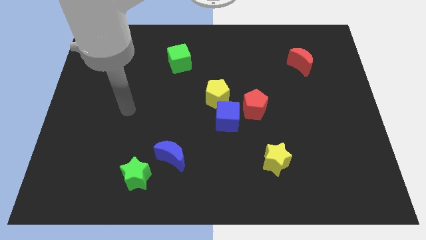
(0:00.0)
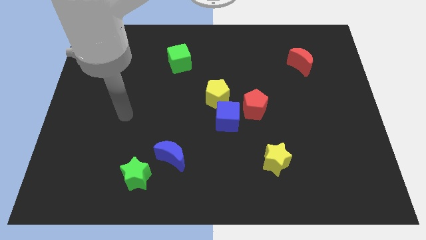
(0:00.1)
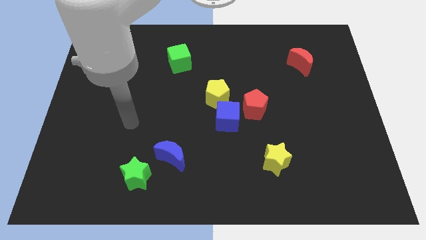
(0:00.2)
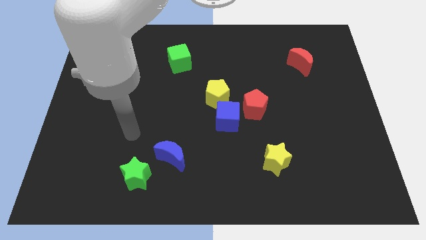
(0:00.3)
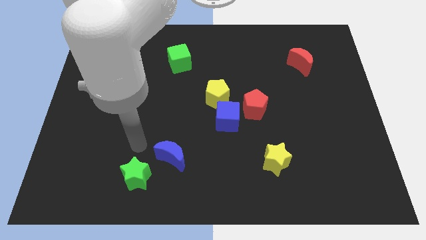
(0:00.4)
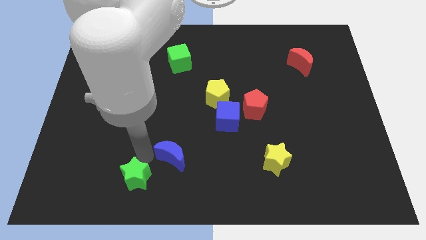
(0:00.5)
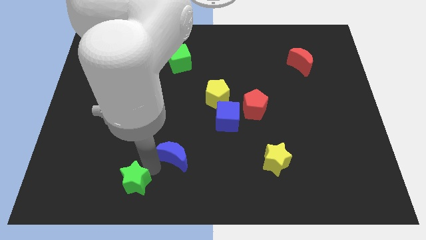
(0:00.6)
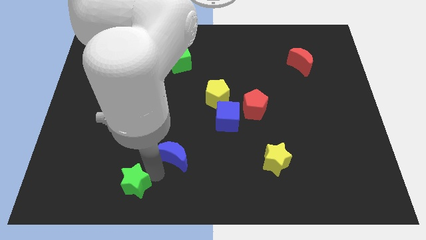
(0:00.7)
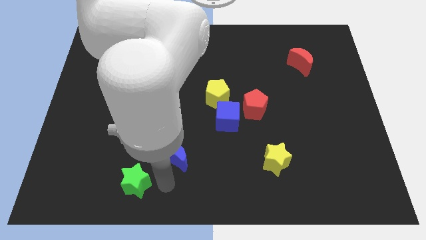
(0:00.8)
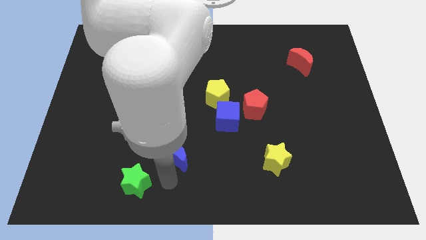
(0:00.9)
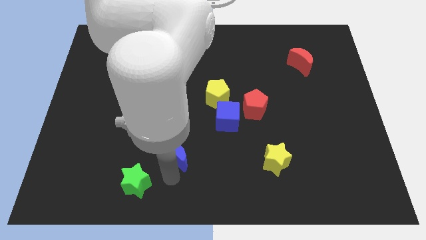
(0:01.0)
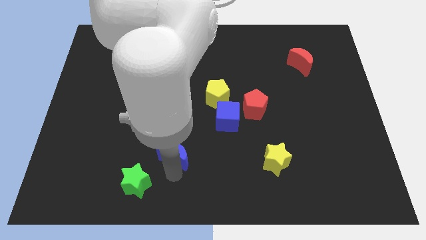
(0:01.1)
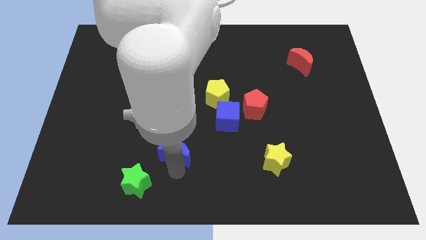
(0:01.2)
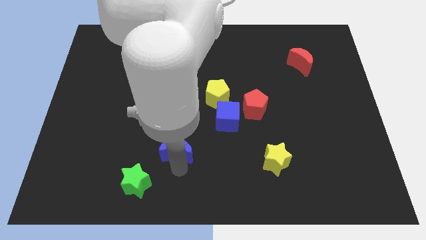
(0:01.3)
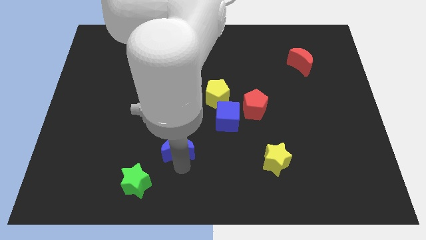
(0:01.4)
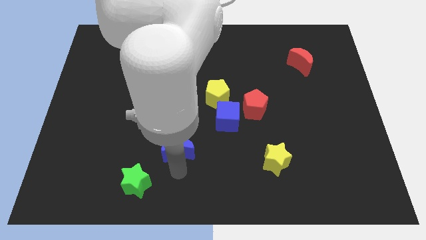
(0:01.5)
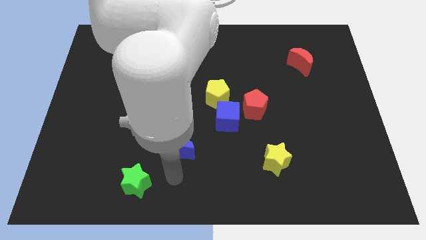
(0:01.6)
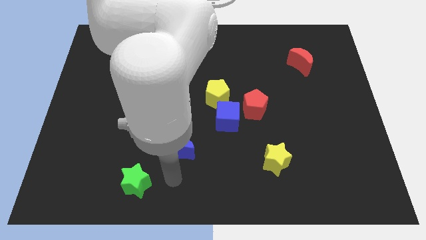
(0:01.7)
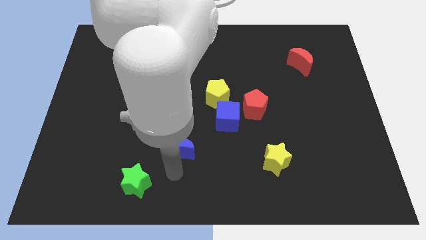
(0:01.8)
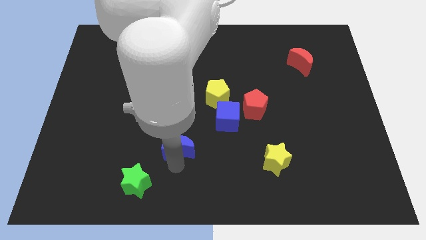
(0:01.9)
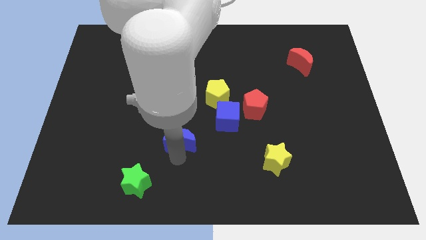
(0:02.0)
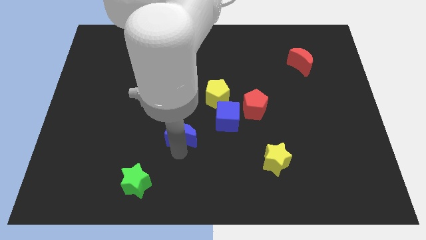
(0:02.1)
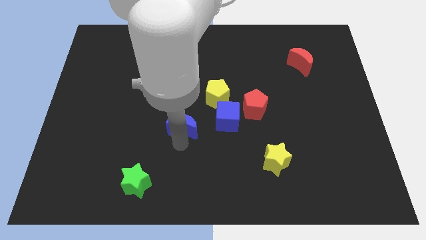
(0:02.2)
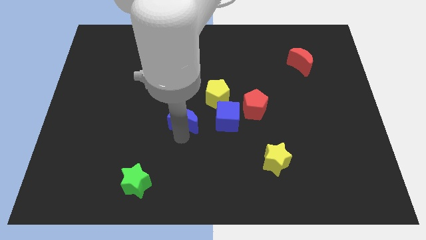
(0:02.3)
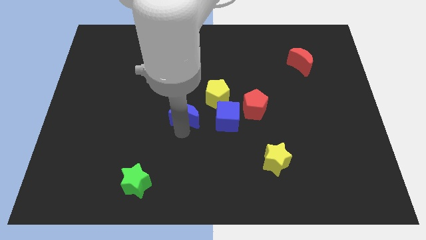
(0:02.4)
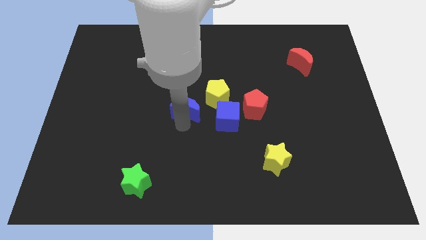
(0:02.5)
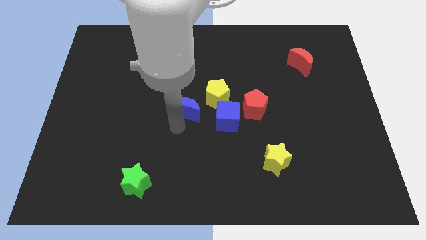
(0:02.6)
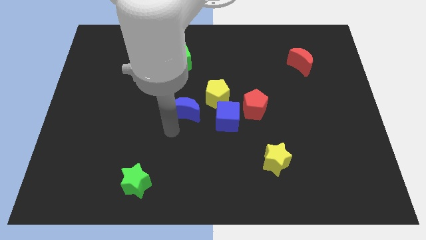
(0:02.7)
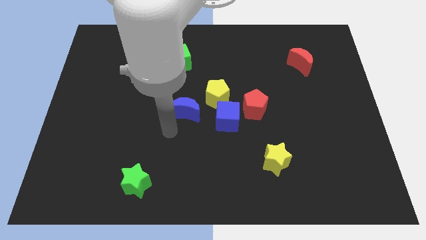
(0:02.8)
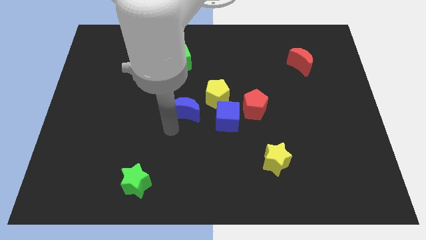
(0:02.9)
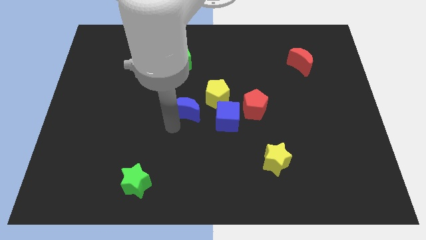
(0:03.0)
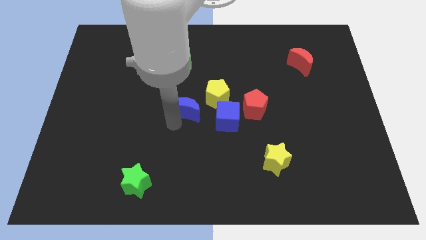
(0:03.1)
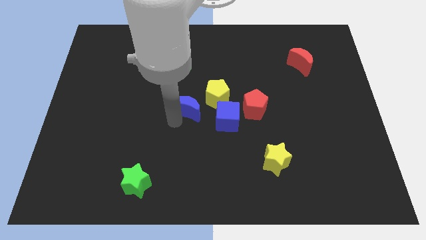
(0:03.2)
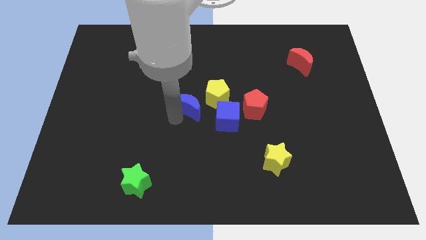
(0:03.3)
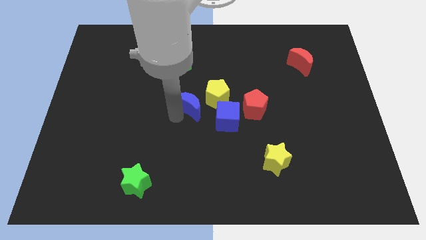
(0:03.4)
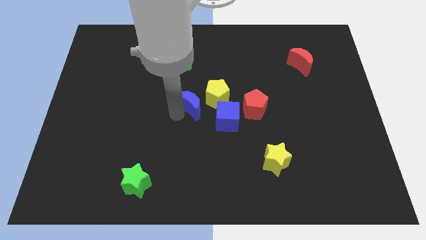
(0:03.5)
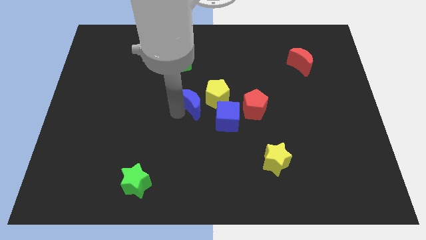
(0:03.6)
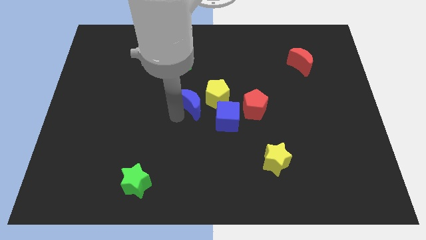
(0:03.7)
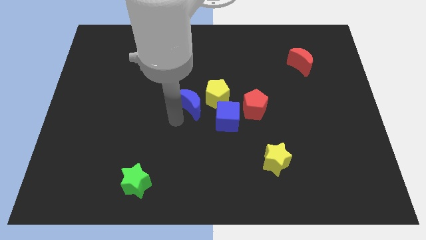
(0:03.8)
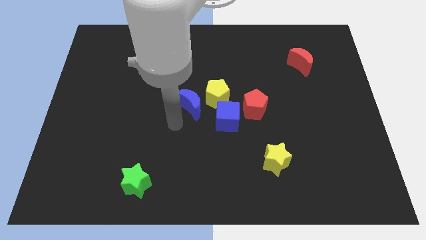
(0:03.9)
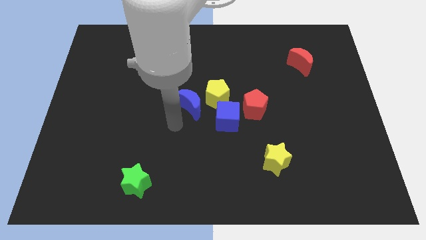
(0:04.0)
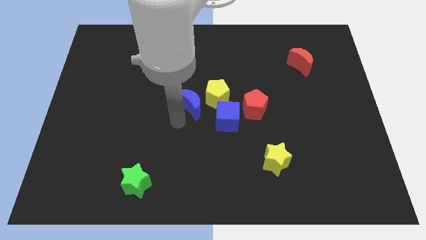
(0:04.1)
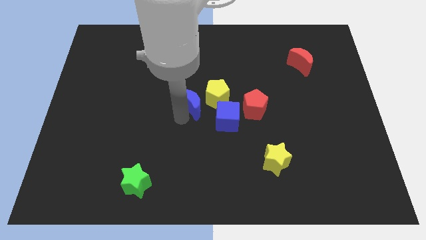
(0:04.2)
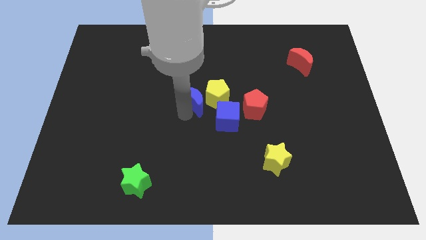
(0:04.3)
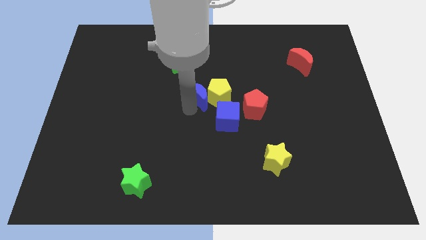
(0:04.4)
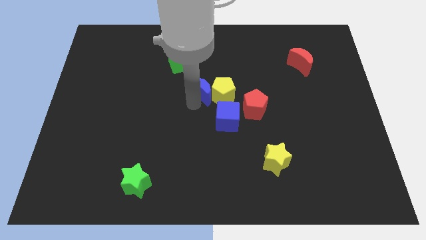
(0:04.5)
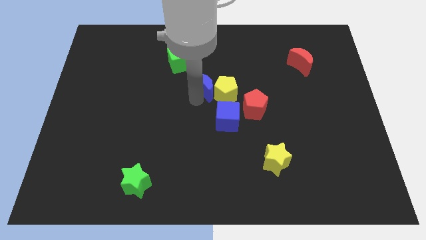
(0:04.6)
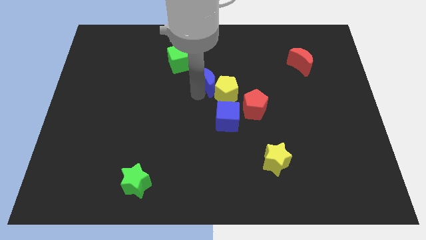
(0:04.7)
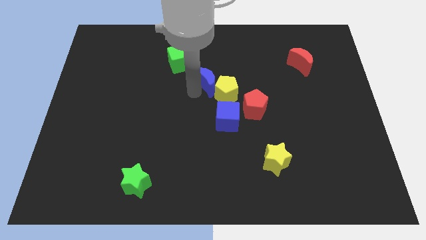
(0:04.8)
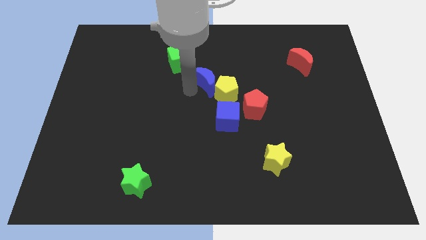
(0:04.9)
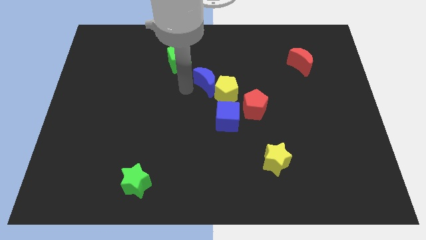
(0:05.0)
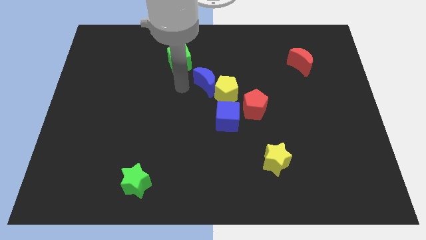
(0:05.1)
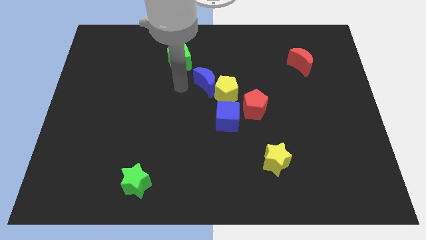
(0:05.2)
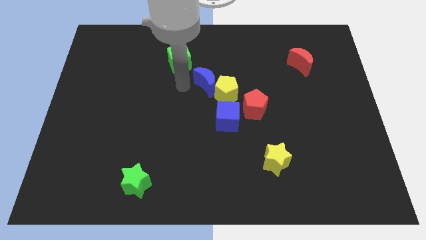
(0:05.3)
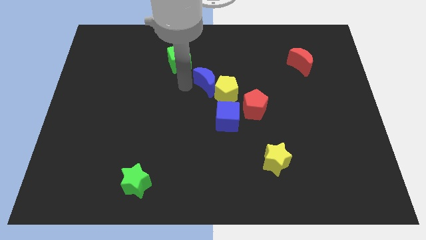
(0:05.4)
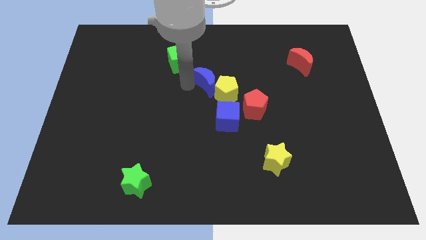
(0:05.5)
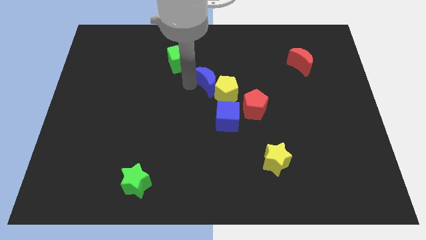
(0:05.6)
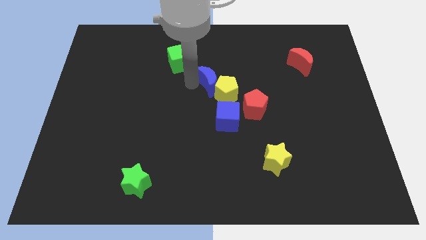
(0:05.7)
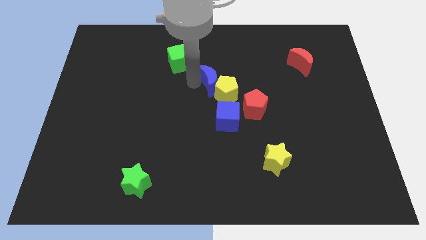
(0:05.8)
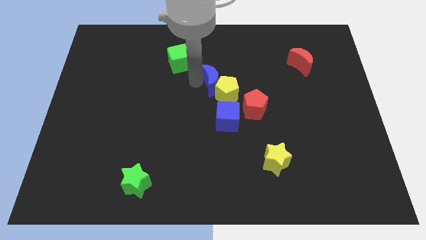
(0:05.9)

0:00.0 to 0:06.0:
put the blue moon diagonally up and to the left of the red pentagon
